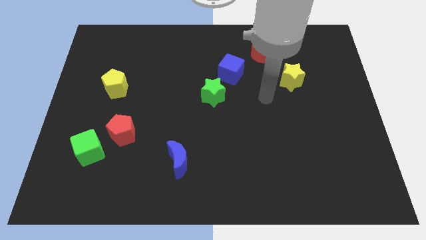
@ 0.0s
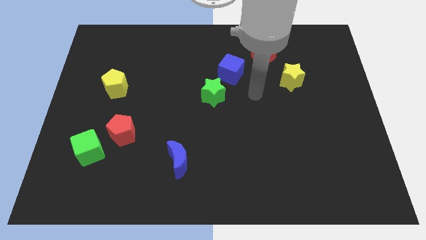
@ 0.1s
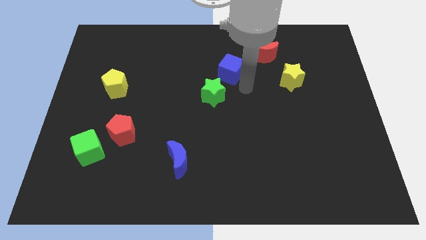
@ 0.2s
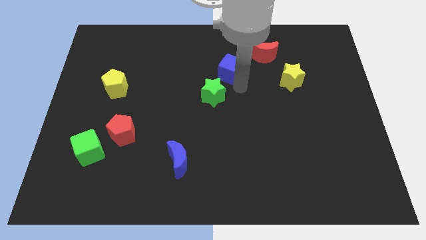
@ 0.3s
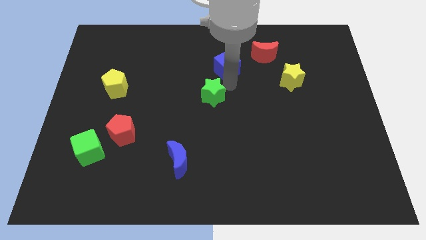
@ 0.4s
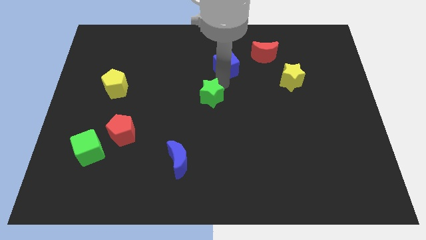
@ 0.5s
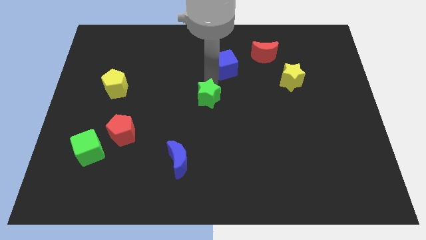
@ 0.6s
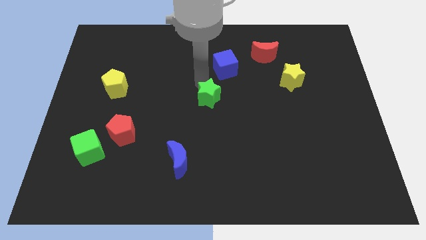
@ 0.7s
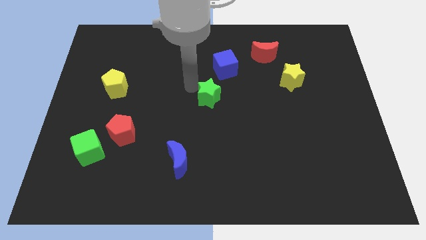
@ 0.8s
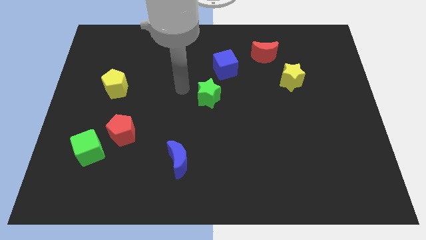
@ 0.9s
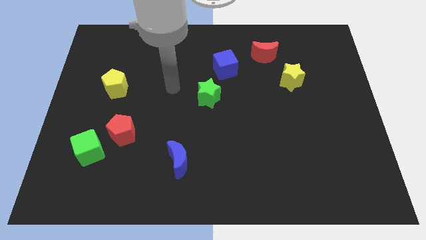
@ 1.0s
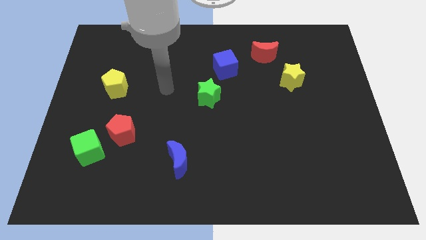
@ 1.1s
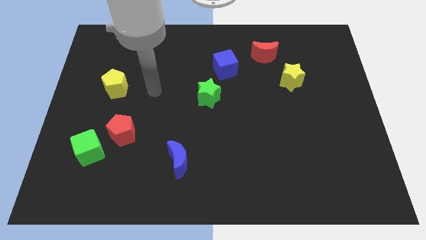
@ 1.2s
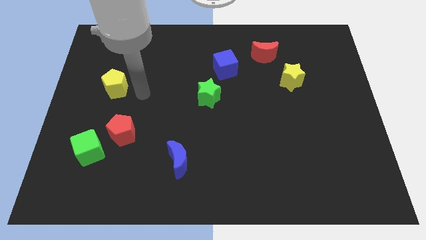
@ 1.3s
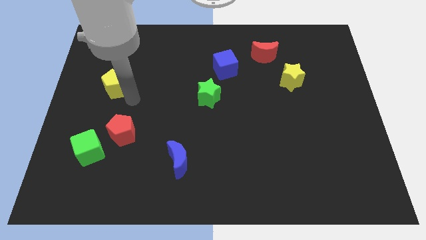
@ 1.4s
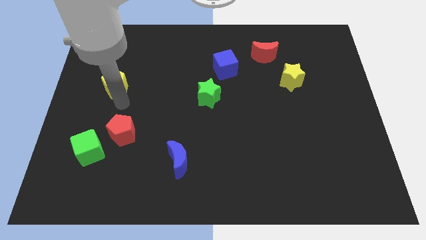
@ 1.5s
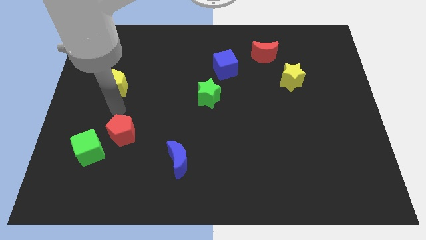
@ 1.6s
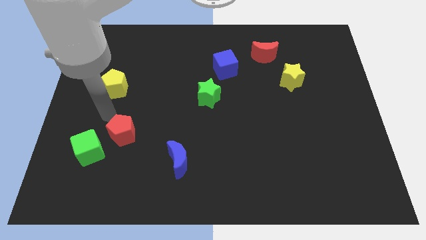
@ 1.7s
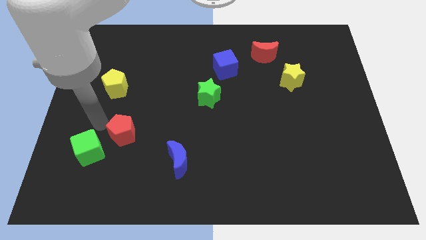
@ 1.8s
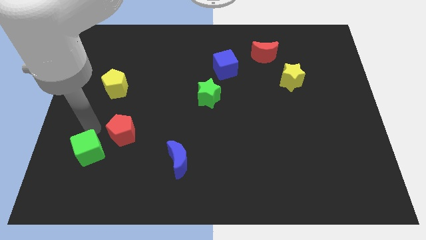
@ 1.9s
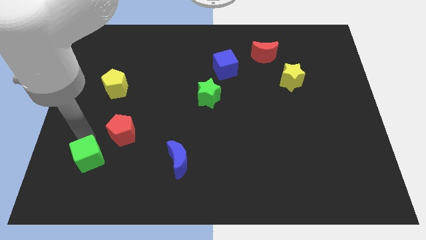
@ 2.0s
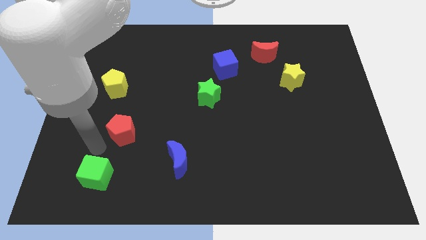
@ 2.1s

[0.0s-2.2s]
pull the red pentagon apart from the green cube

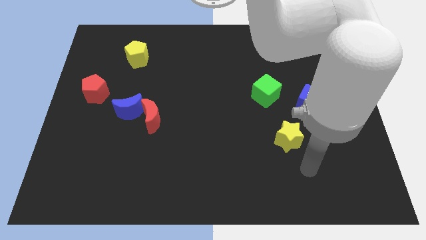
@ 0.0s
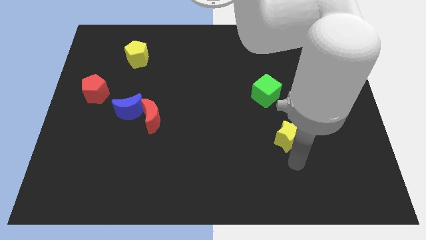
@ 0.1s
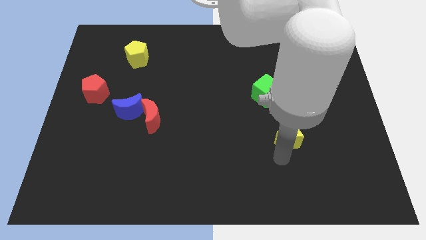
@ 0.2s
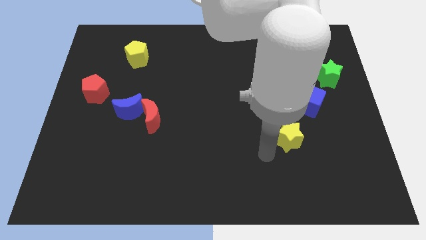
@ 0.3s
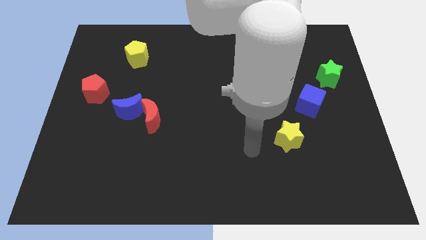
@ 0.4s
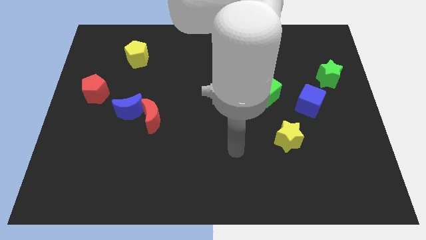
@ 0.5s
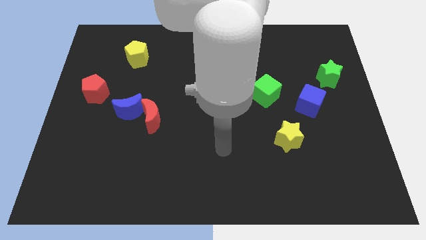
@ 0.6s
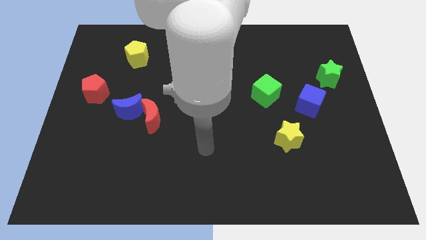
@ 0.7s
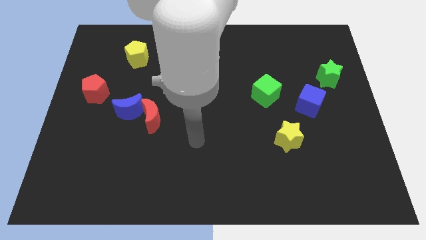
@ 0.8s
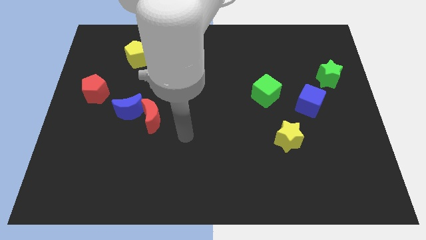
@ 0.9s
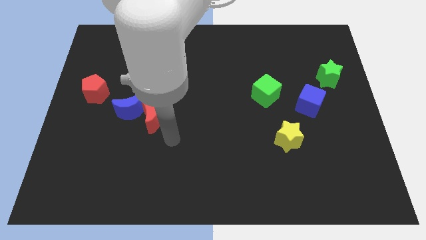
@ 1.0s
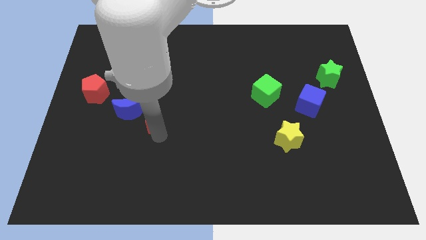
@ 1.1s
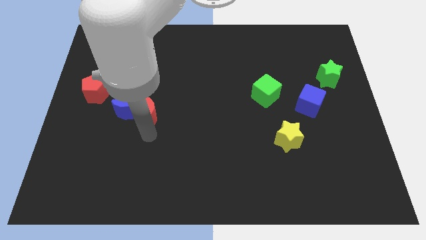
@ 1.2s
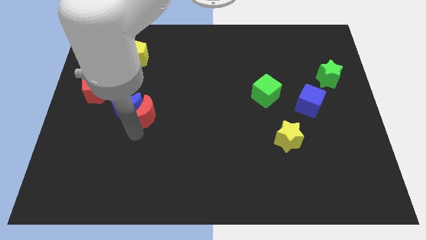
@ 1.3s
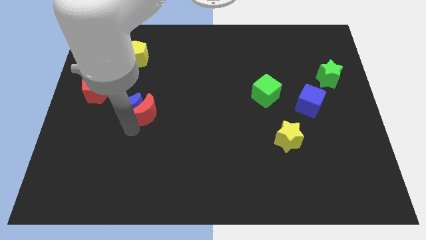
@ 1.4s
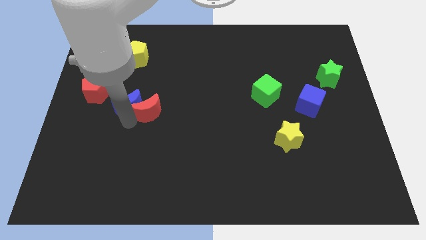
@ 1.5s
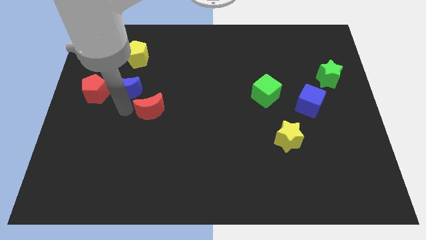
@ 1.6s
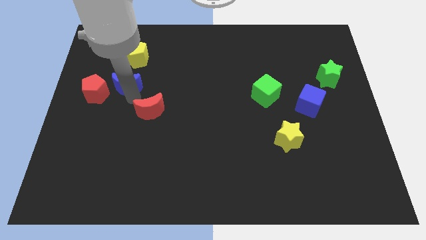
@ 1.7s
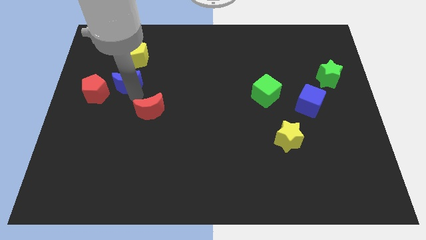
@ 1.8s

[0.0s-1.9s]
move the red moon away from the blue moon

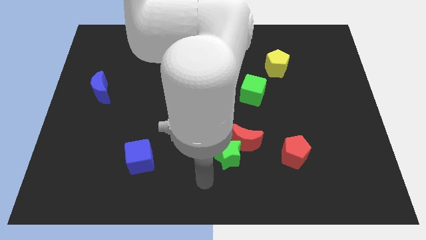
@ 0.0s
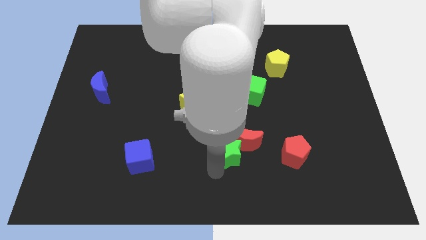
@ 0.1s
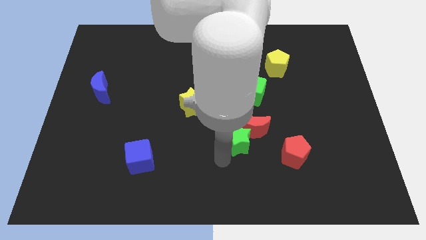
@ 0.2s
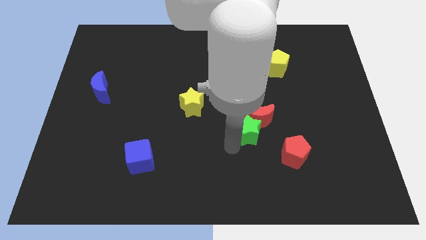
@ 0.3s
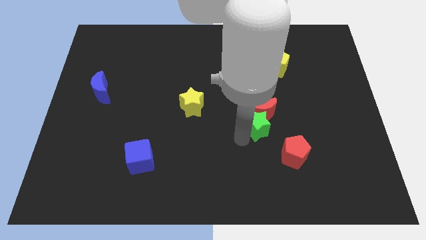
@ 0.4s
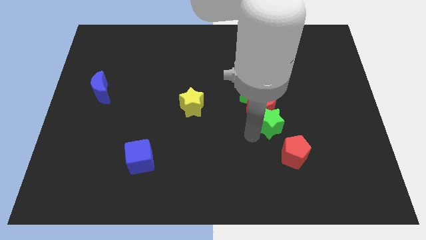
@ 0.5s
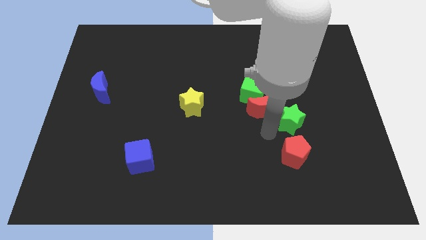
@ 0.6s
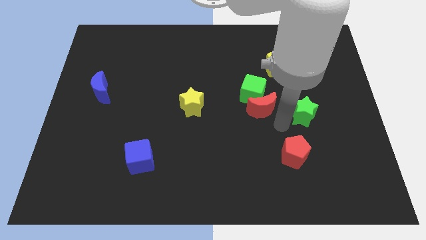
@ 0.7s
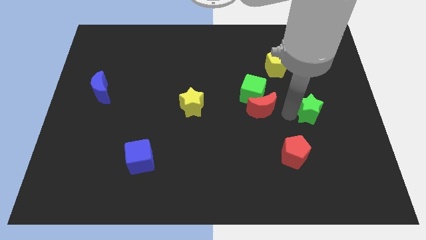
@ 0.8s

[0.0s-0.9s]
separate the red moon from the green star

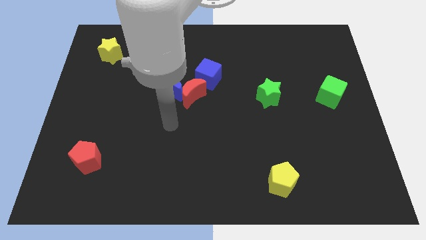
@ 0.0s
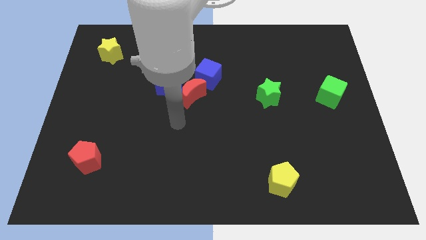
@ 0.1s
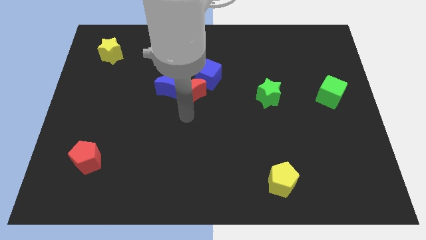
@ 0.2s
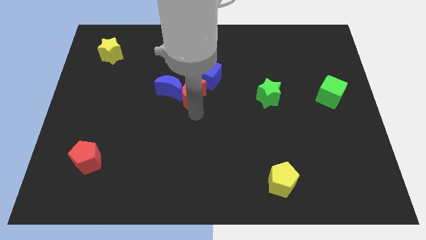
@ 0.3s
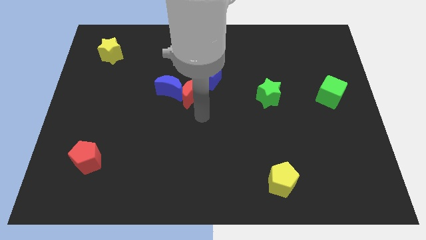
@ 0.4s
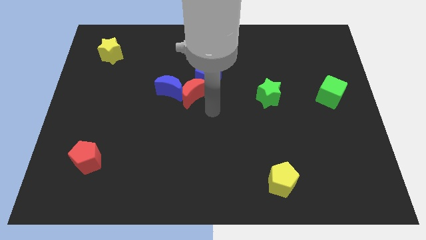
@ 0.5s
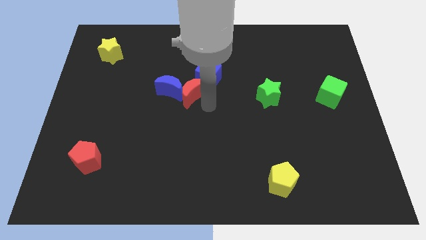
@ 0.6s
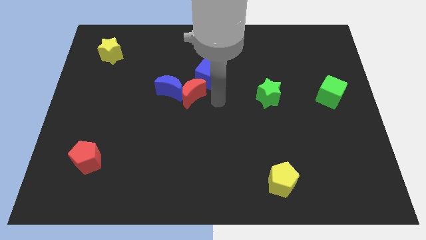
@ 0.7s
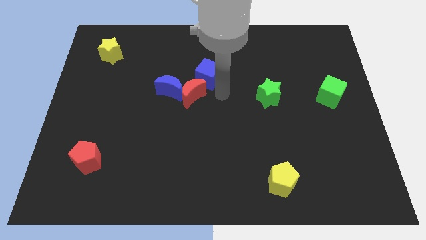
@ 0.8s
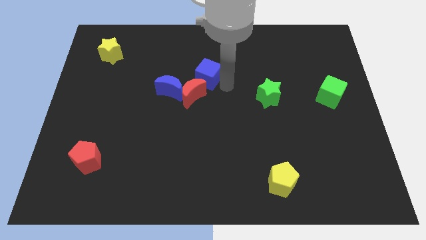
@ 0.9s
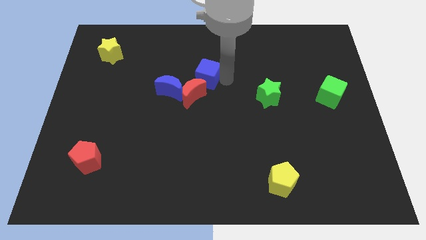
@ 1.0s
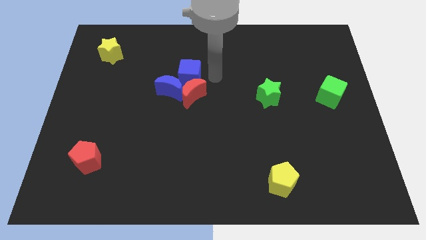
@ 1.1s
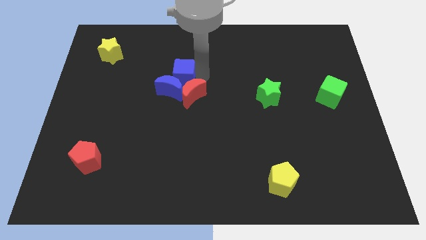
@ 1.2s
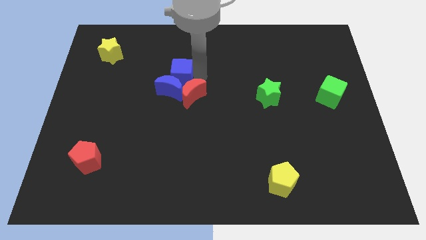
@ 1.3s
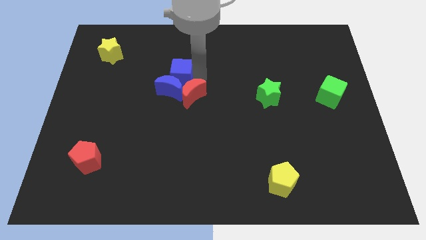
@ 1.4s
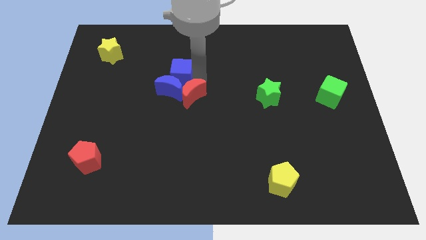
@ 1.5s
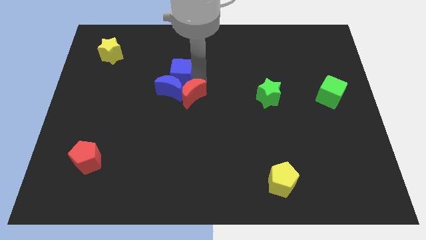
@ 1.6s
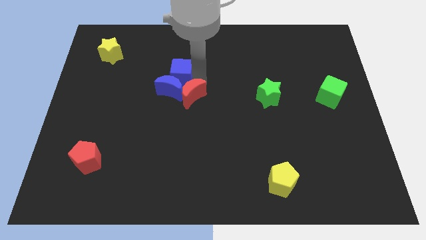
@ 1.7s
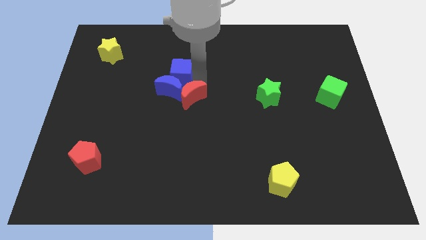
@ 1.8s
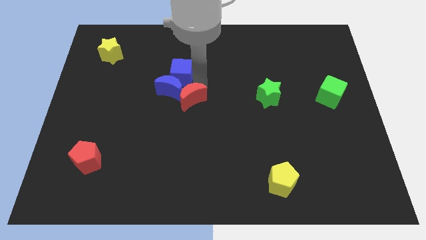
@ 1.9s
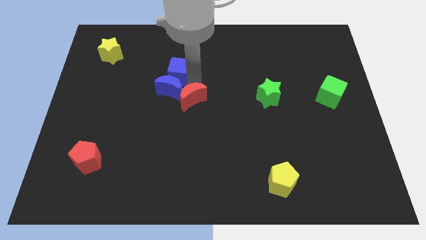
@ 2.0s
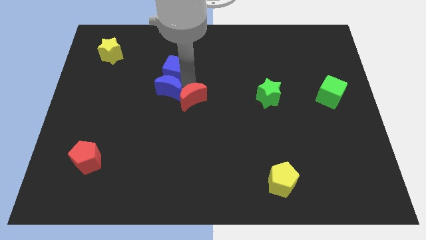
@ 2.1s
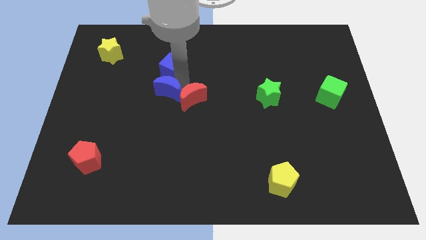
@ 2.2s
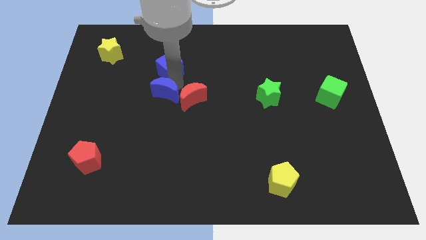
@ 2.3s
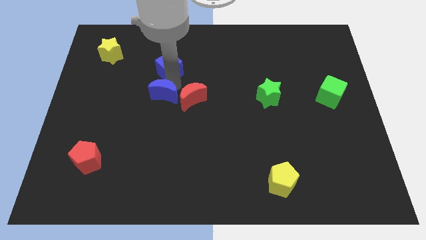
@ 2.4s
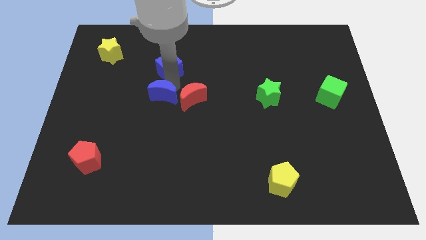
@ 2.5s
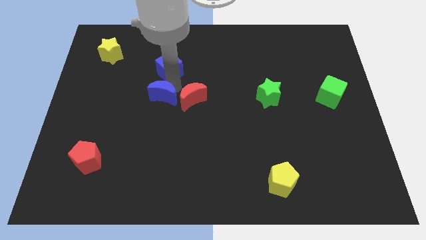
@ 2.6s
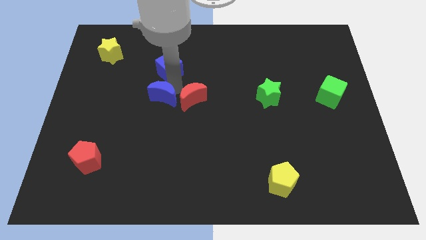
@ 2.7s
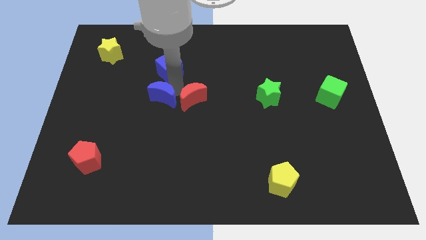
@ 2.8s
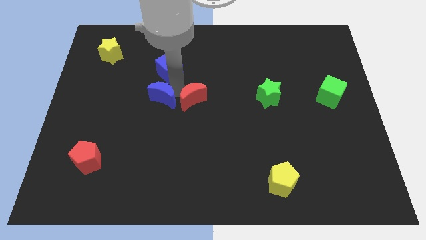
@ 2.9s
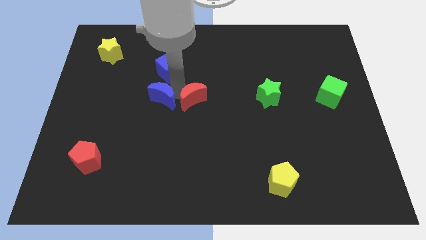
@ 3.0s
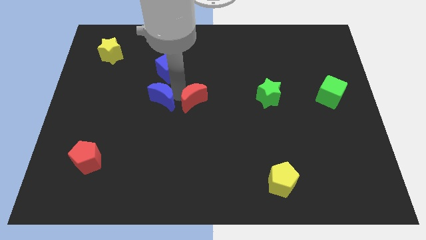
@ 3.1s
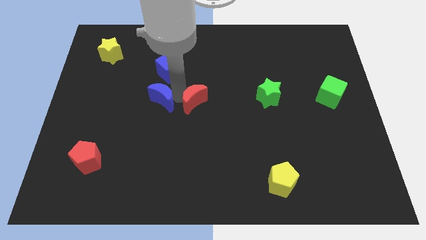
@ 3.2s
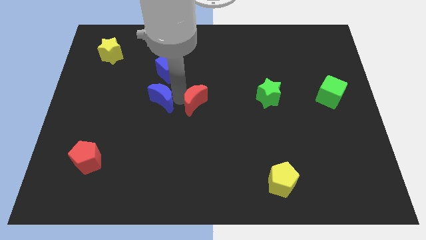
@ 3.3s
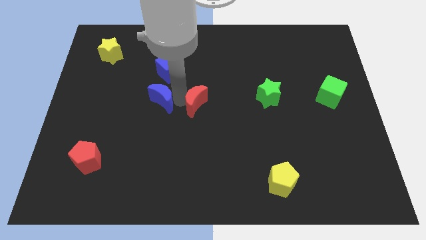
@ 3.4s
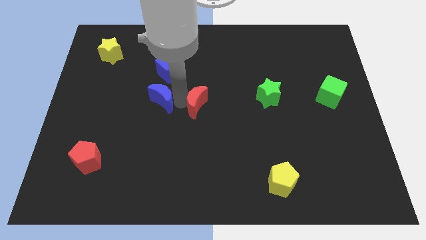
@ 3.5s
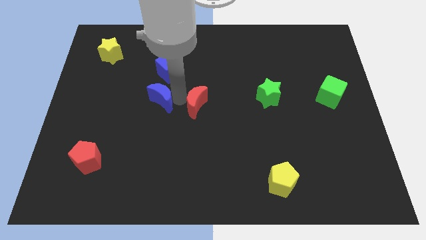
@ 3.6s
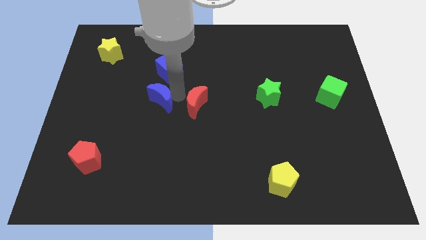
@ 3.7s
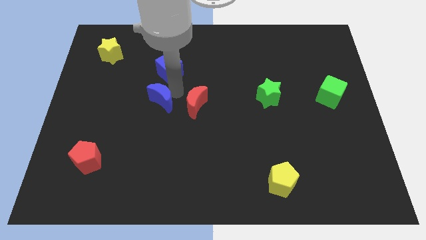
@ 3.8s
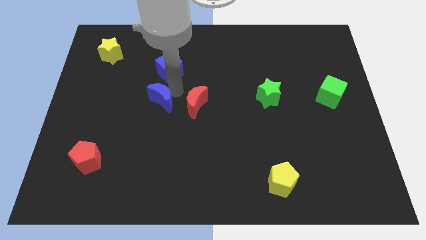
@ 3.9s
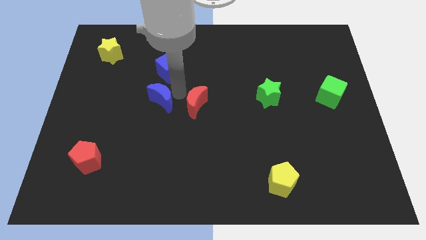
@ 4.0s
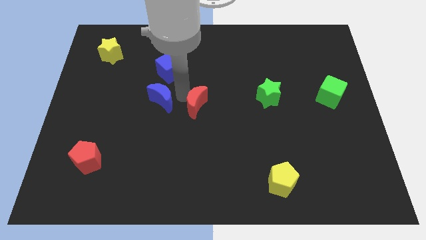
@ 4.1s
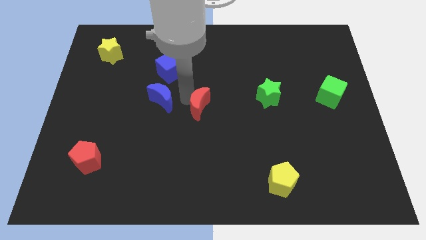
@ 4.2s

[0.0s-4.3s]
separate the red moon from the blue moon and blue cube

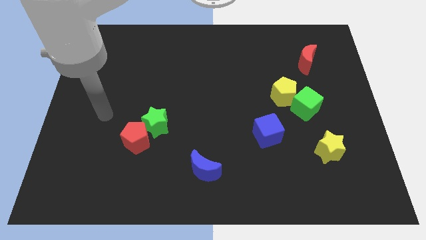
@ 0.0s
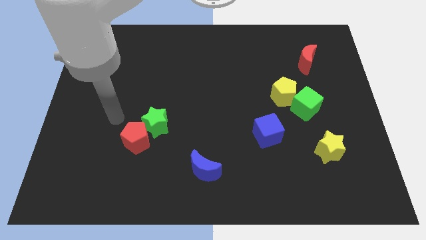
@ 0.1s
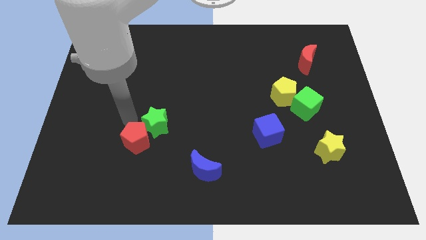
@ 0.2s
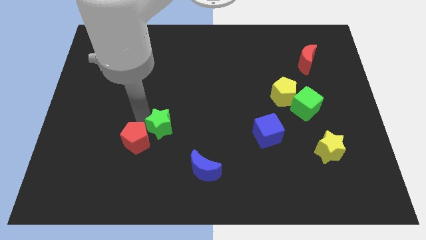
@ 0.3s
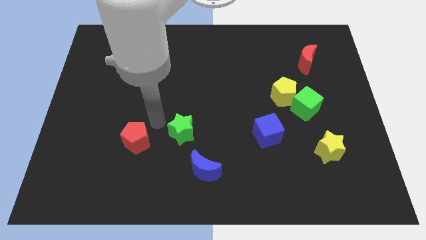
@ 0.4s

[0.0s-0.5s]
separate the red pentagon from the green star
